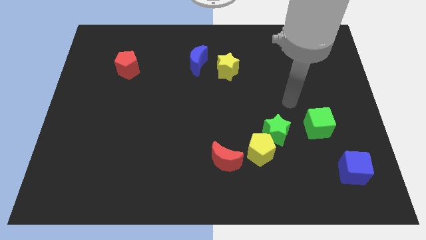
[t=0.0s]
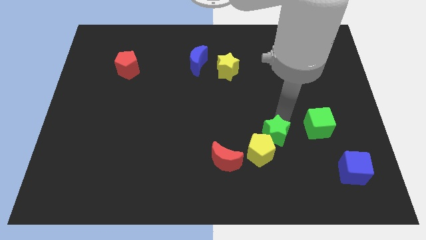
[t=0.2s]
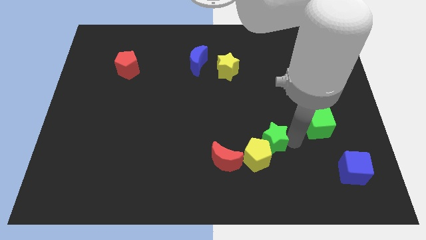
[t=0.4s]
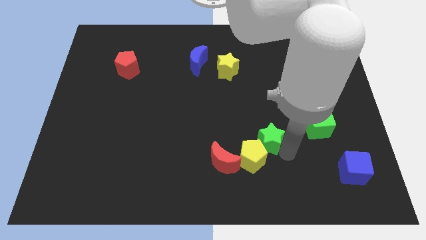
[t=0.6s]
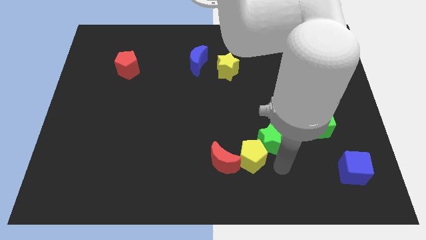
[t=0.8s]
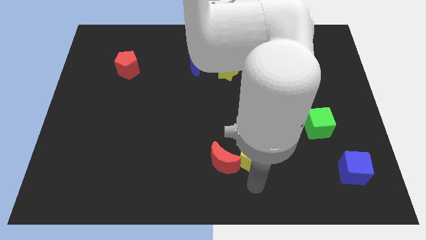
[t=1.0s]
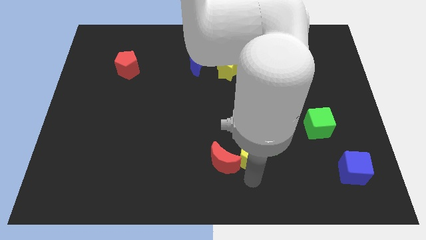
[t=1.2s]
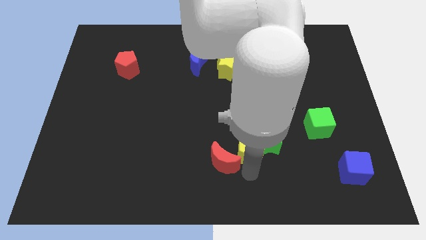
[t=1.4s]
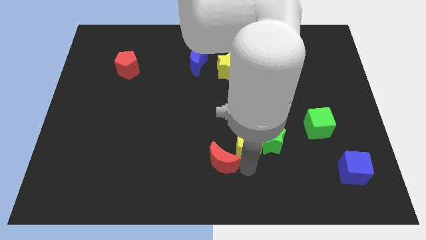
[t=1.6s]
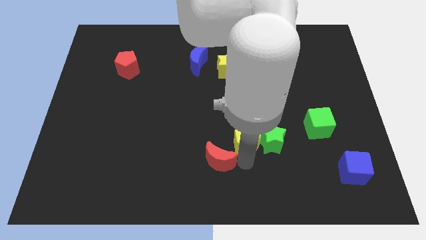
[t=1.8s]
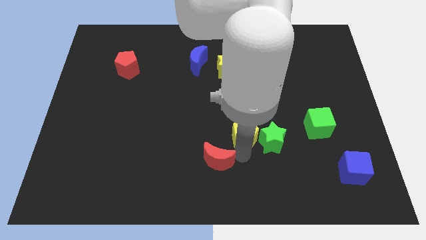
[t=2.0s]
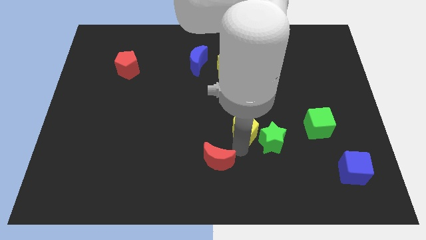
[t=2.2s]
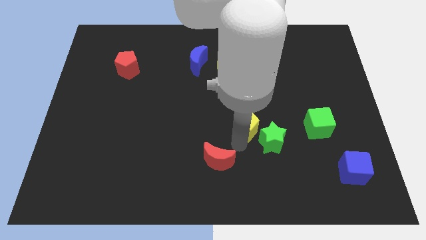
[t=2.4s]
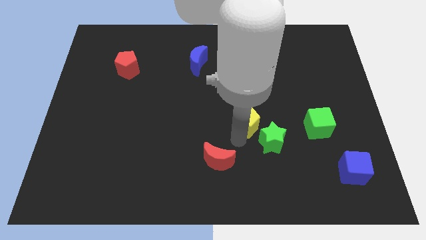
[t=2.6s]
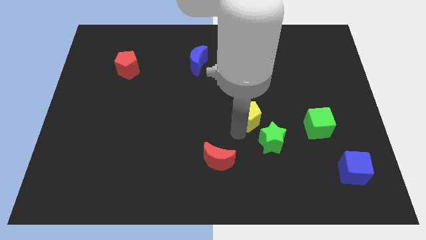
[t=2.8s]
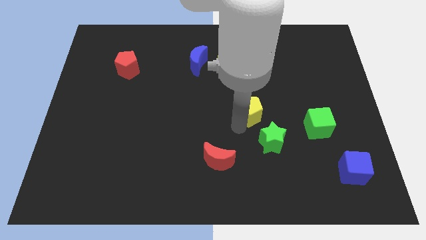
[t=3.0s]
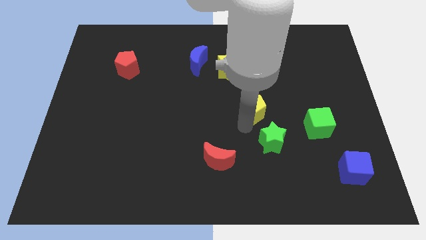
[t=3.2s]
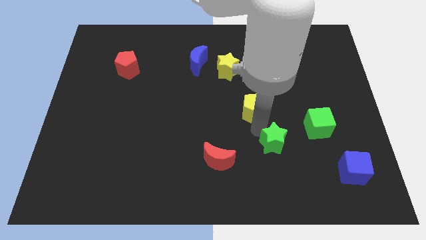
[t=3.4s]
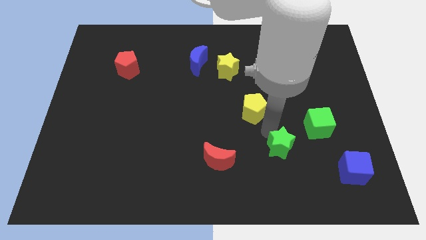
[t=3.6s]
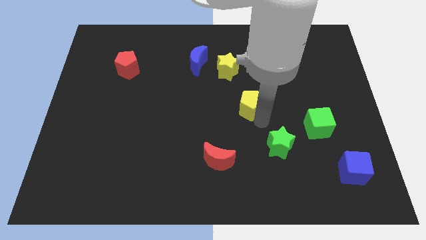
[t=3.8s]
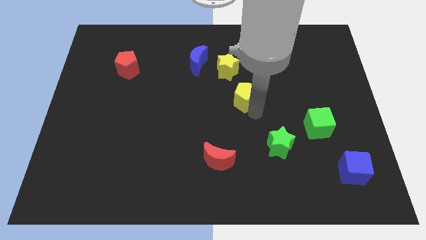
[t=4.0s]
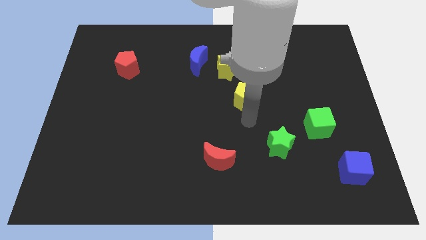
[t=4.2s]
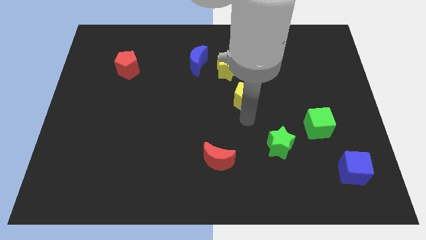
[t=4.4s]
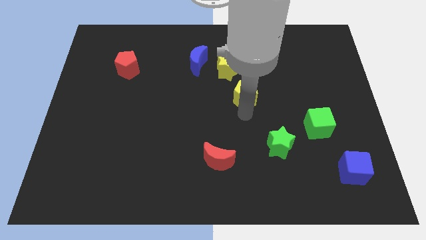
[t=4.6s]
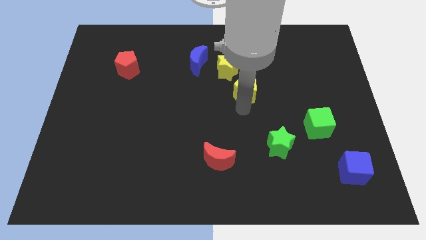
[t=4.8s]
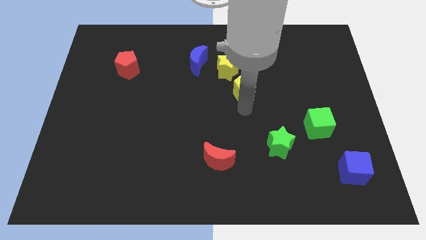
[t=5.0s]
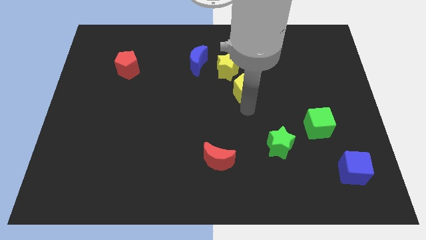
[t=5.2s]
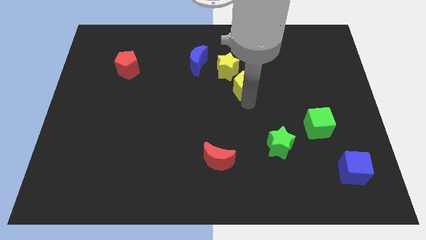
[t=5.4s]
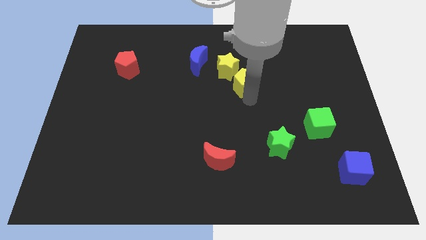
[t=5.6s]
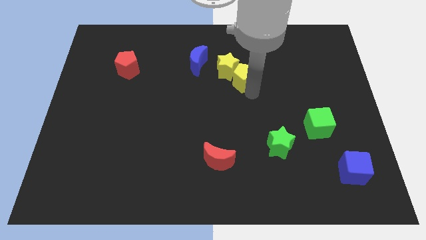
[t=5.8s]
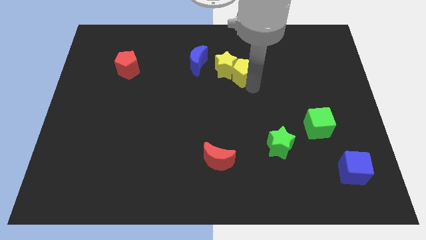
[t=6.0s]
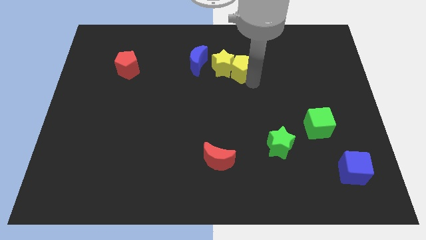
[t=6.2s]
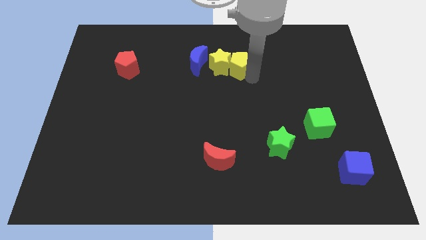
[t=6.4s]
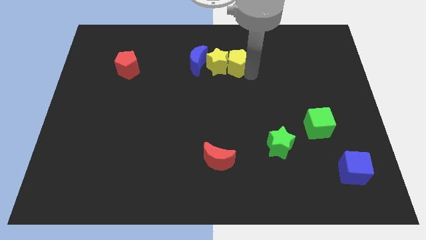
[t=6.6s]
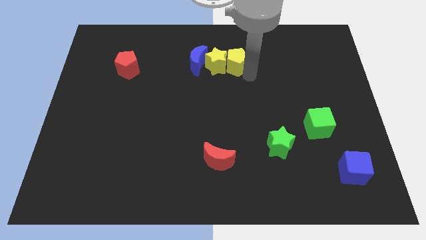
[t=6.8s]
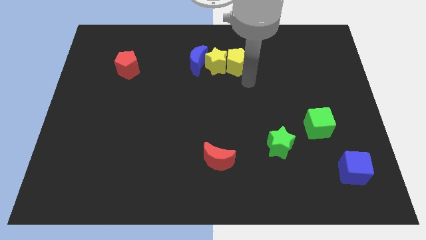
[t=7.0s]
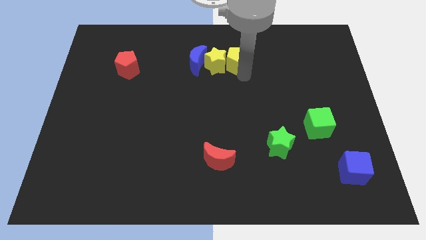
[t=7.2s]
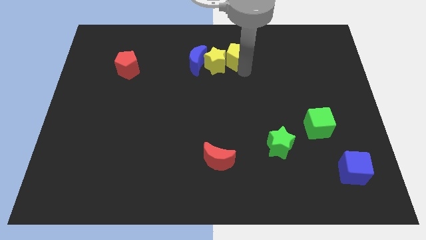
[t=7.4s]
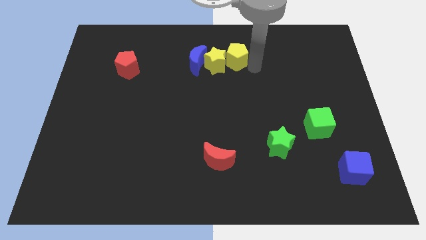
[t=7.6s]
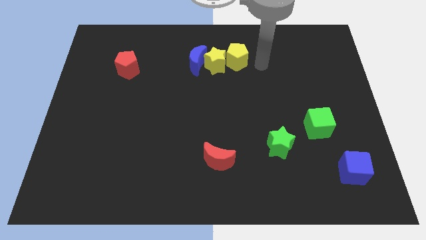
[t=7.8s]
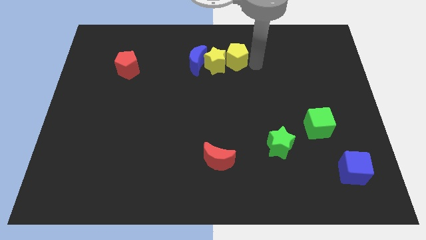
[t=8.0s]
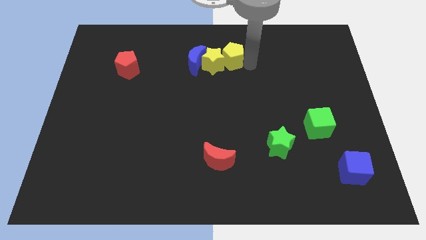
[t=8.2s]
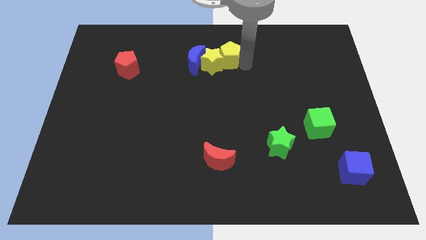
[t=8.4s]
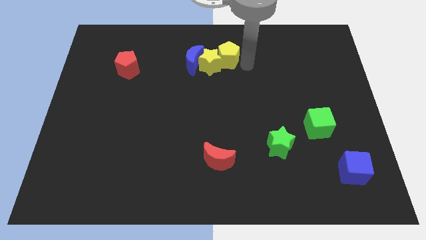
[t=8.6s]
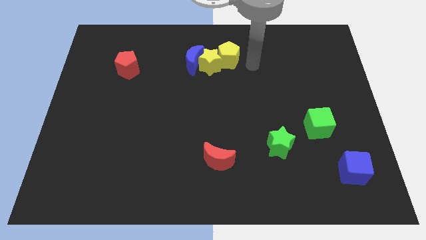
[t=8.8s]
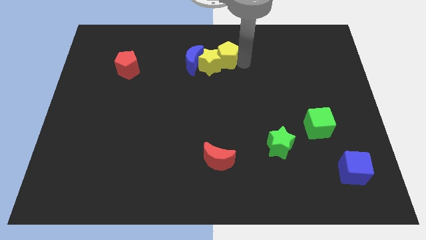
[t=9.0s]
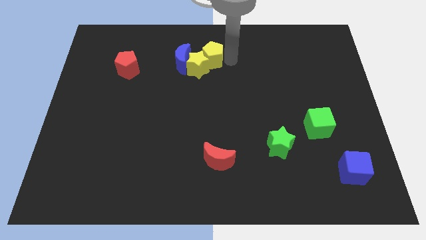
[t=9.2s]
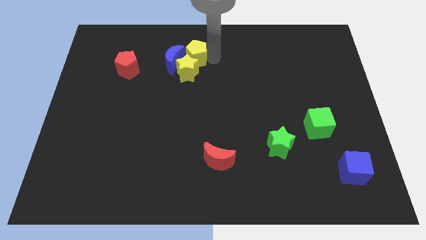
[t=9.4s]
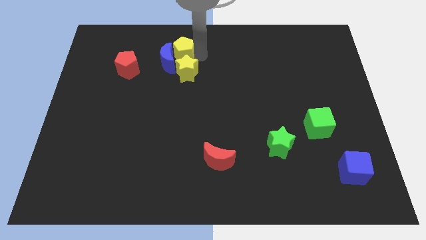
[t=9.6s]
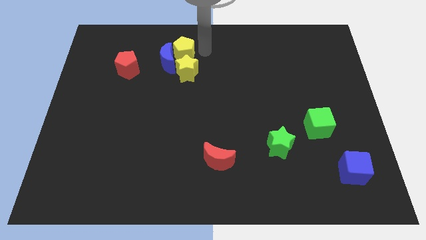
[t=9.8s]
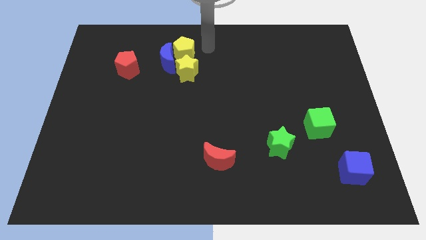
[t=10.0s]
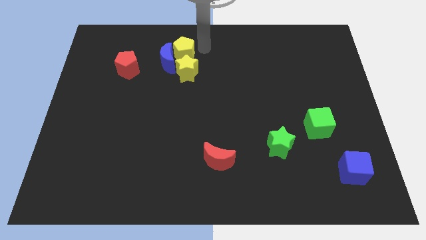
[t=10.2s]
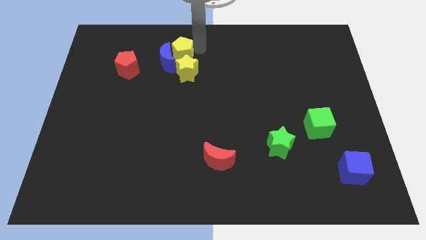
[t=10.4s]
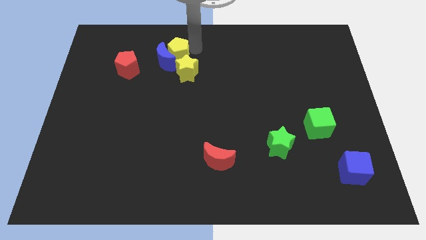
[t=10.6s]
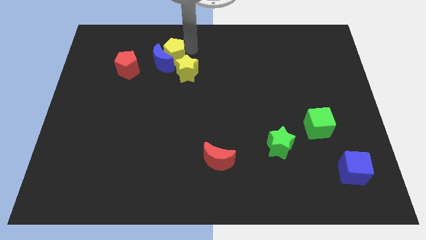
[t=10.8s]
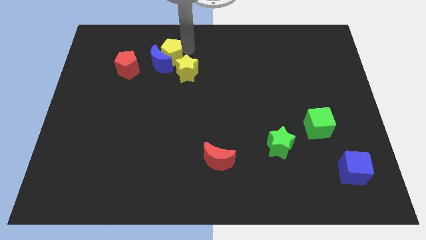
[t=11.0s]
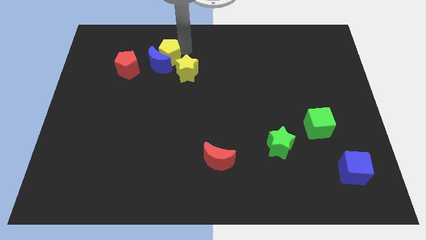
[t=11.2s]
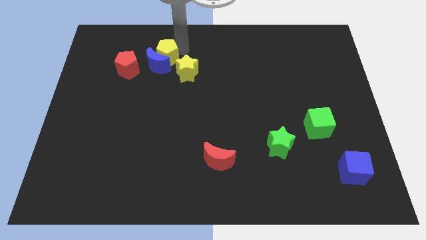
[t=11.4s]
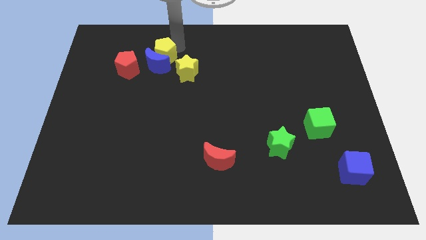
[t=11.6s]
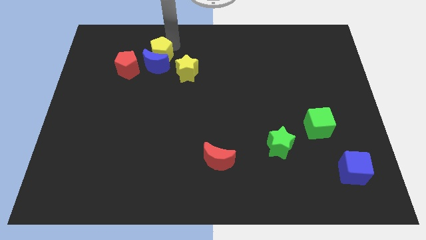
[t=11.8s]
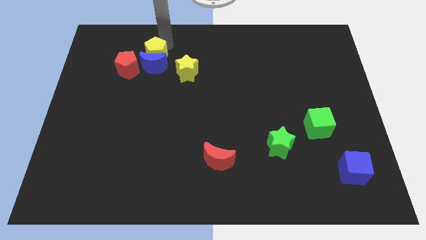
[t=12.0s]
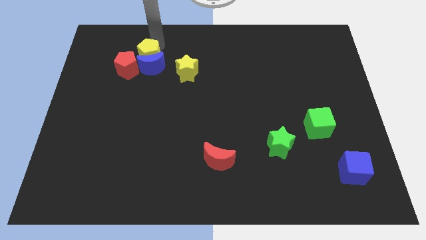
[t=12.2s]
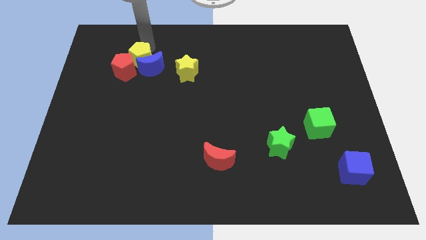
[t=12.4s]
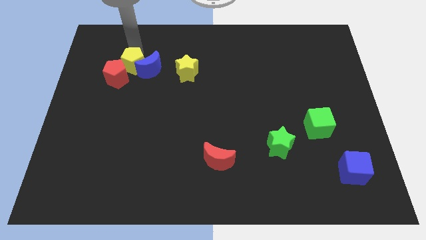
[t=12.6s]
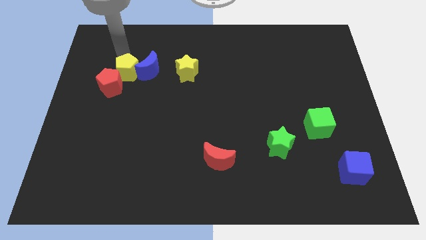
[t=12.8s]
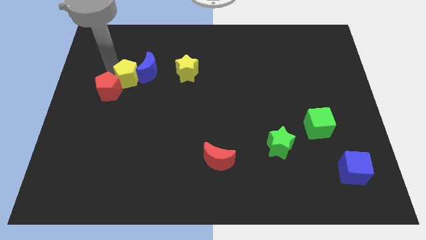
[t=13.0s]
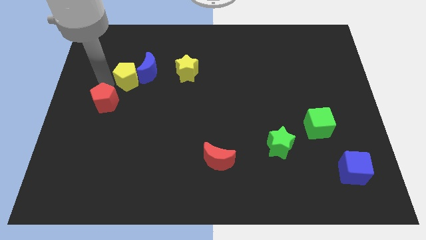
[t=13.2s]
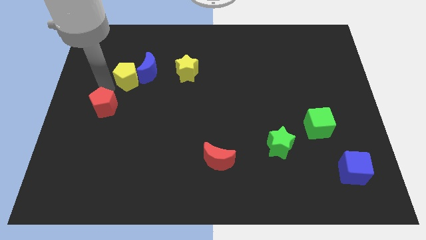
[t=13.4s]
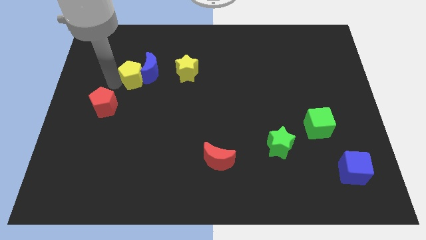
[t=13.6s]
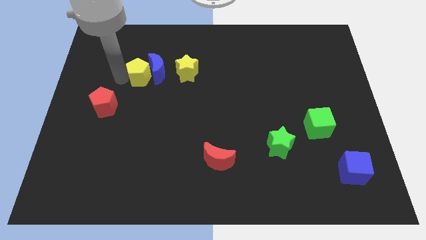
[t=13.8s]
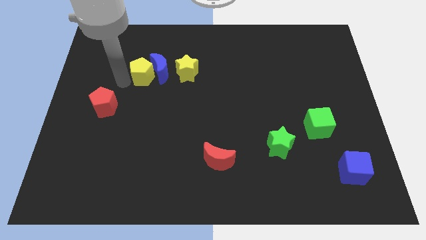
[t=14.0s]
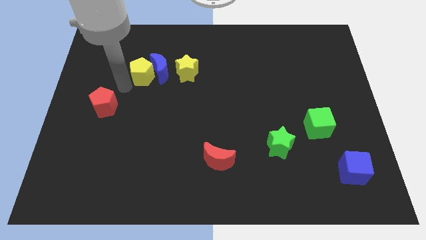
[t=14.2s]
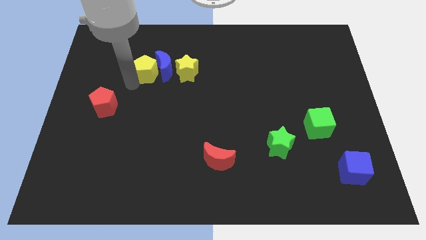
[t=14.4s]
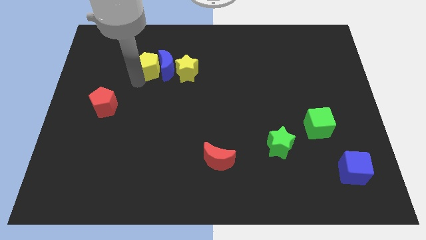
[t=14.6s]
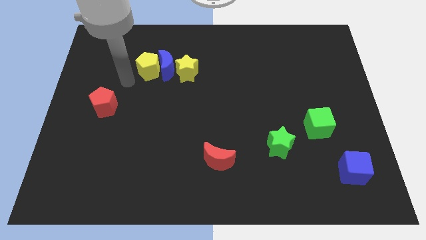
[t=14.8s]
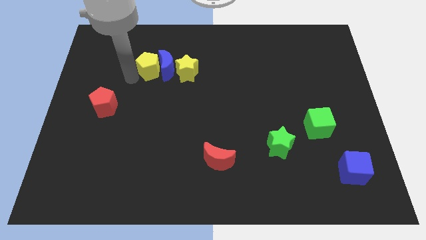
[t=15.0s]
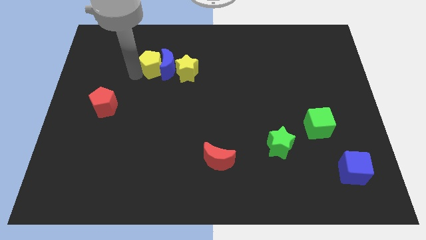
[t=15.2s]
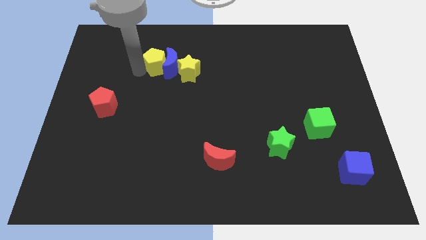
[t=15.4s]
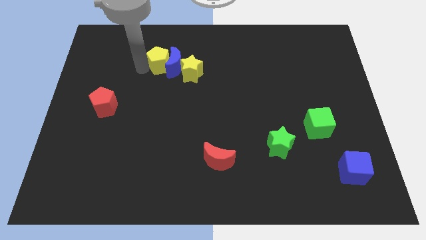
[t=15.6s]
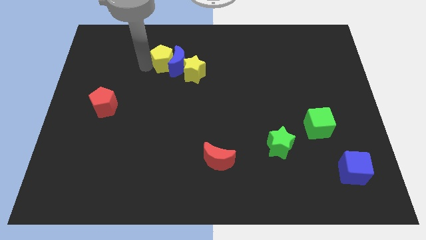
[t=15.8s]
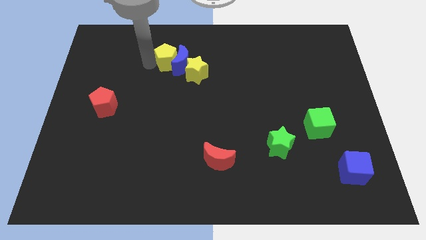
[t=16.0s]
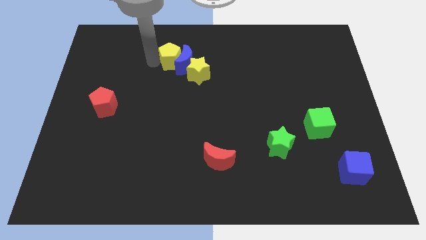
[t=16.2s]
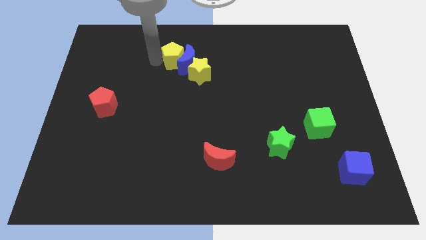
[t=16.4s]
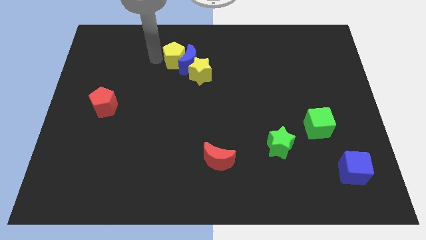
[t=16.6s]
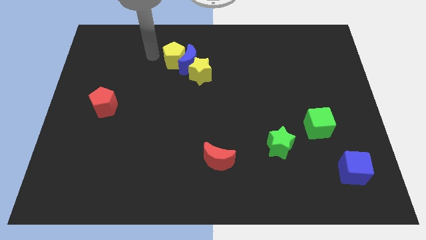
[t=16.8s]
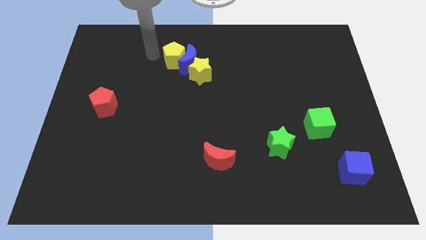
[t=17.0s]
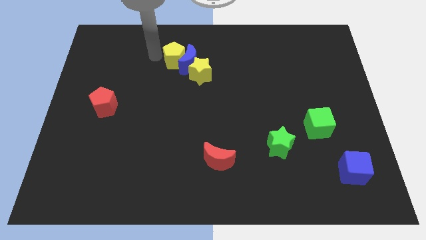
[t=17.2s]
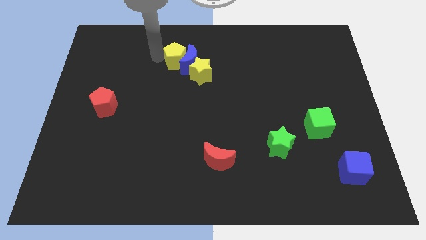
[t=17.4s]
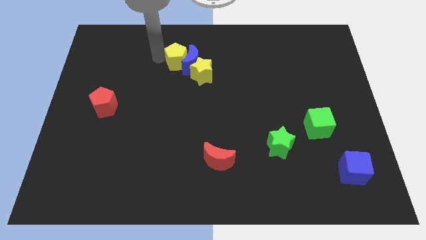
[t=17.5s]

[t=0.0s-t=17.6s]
slide the yellow pentagon diagonally up and to the left of the yellow star
